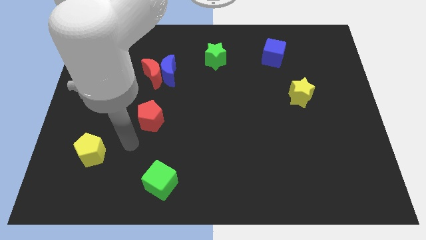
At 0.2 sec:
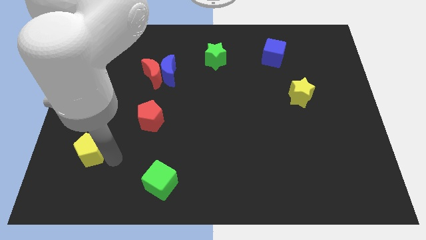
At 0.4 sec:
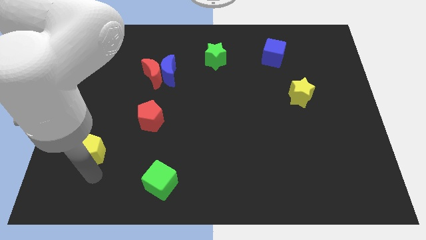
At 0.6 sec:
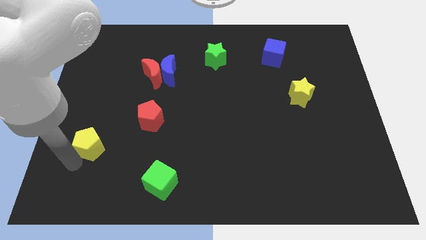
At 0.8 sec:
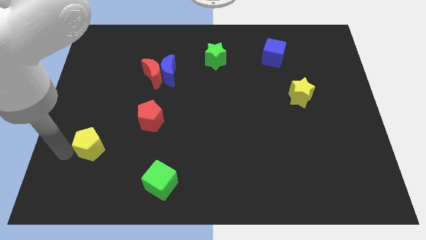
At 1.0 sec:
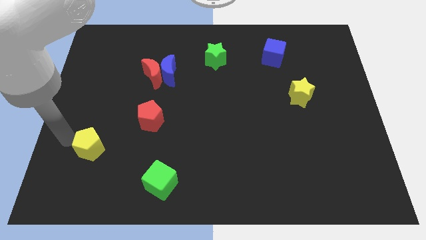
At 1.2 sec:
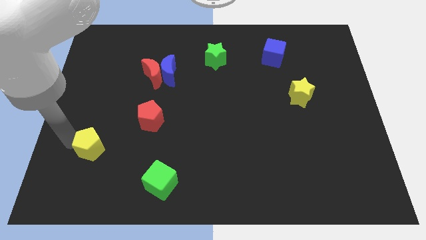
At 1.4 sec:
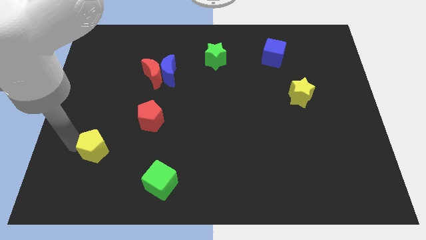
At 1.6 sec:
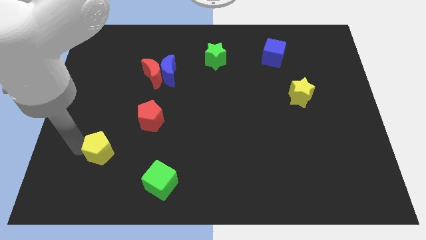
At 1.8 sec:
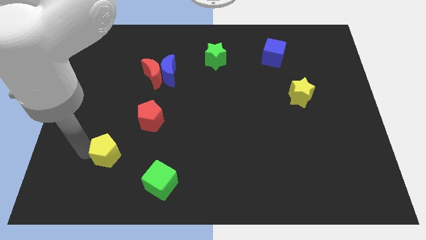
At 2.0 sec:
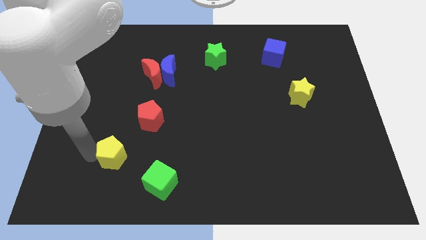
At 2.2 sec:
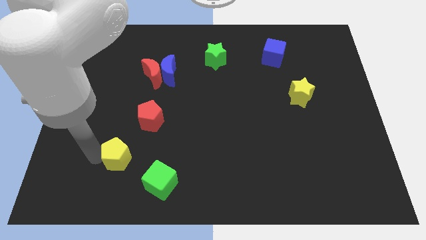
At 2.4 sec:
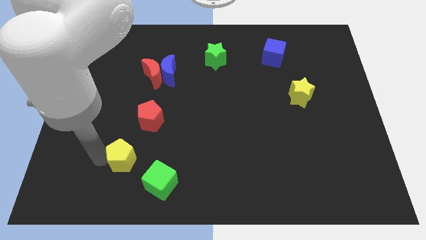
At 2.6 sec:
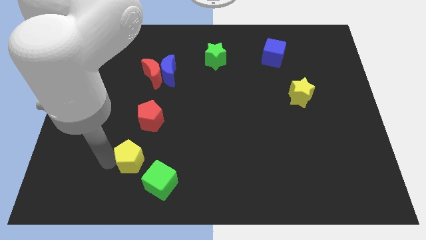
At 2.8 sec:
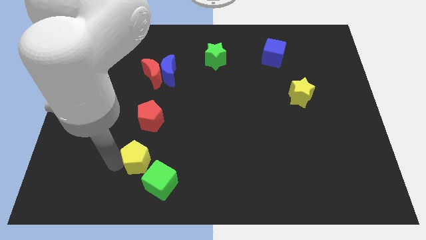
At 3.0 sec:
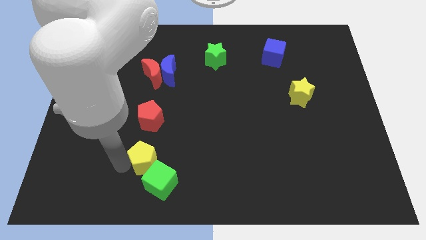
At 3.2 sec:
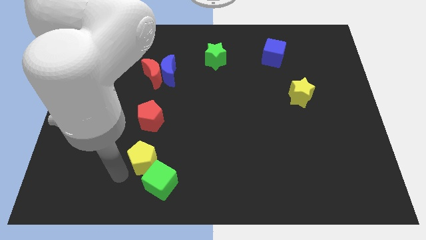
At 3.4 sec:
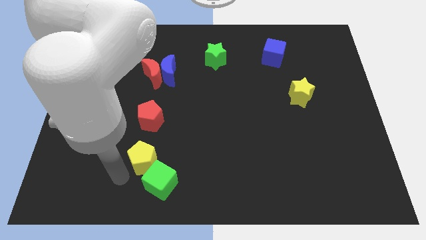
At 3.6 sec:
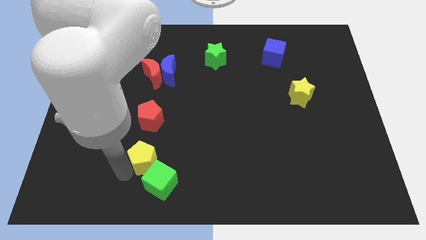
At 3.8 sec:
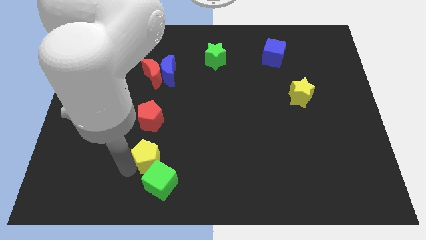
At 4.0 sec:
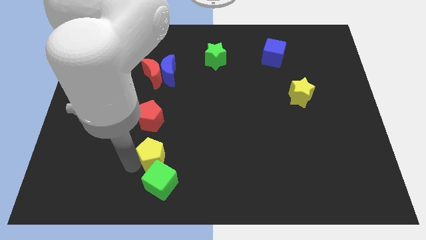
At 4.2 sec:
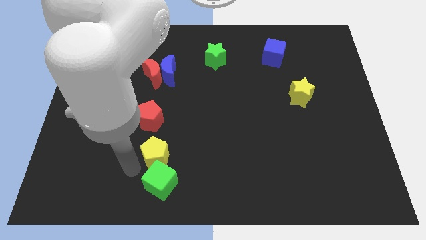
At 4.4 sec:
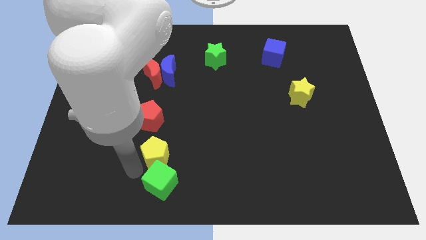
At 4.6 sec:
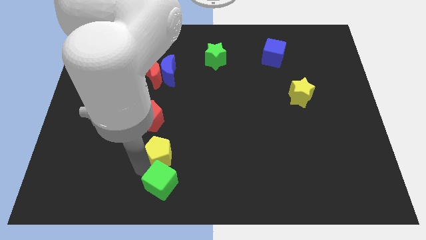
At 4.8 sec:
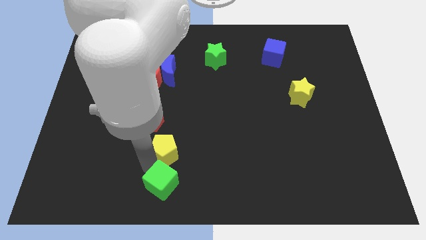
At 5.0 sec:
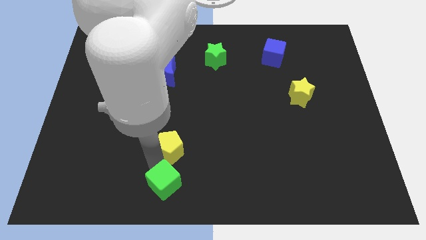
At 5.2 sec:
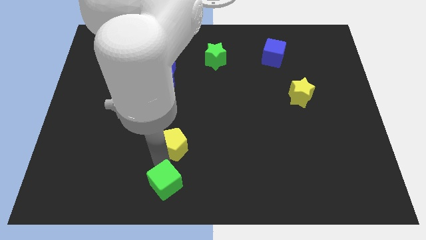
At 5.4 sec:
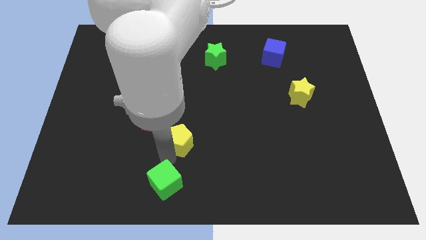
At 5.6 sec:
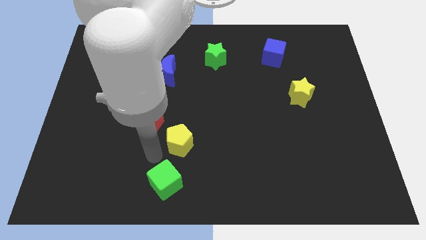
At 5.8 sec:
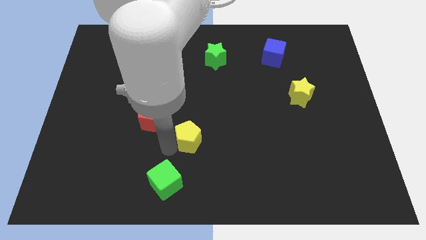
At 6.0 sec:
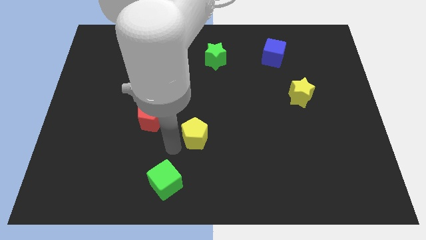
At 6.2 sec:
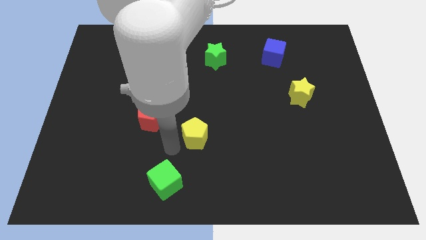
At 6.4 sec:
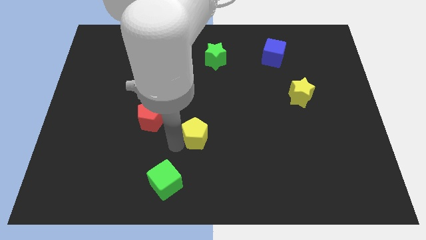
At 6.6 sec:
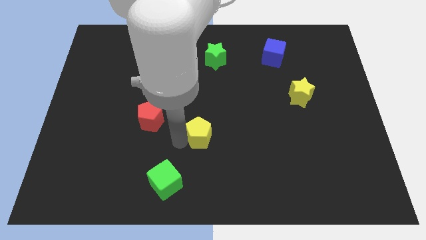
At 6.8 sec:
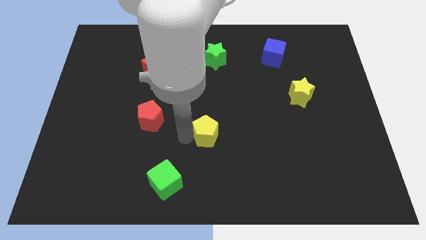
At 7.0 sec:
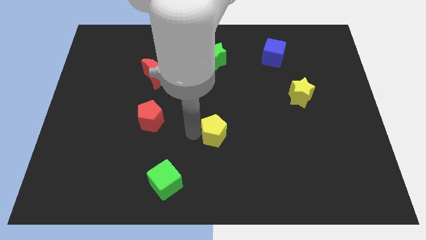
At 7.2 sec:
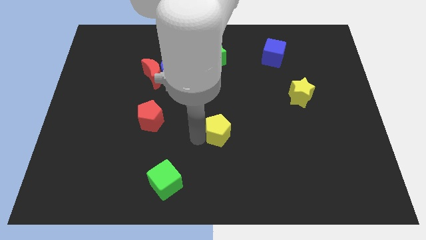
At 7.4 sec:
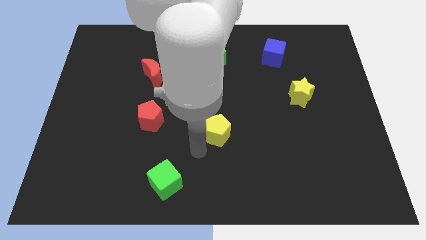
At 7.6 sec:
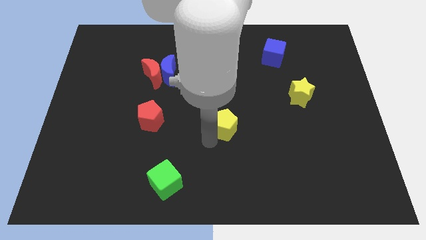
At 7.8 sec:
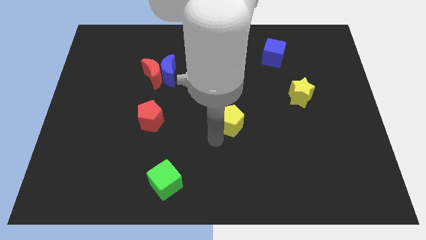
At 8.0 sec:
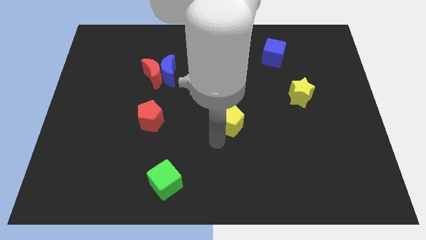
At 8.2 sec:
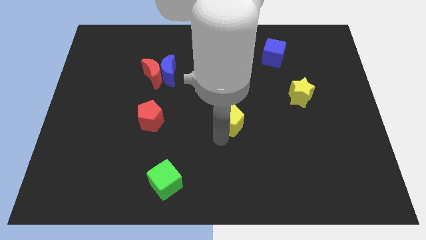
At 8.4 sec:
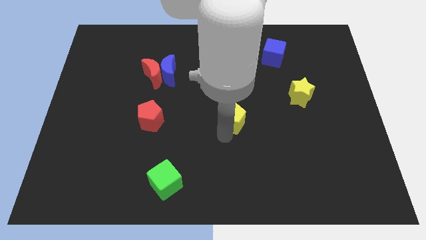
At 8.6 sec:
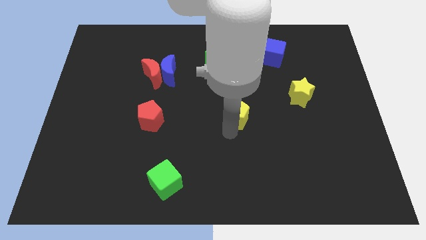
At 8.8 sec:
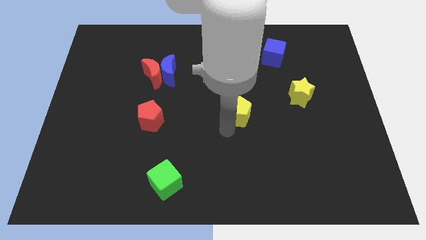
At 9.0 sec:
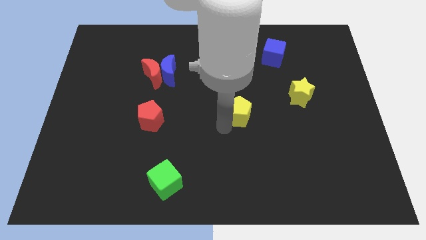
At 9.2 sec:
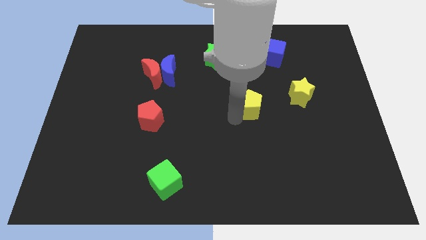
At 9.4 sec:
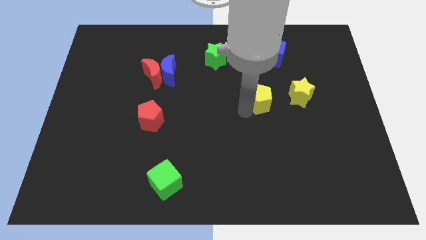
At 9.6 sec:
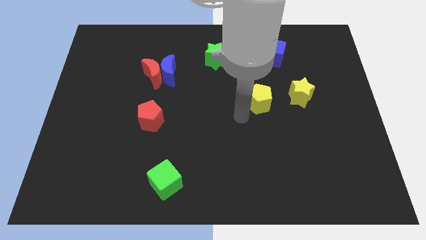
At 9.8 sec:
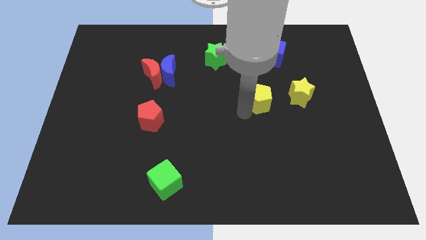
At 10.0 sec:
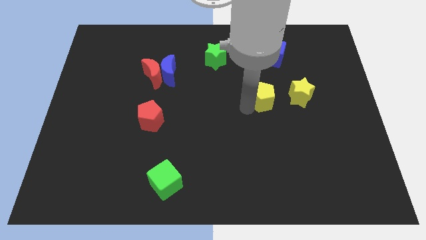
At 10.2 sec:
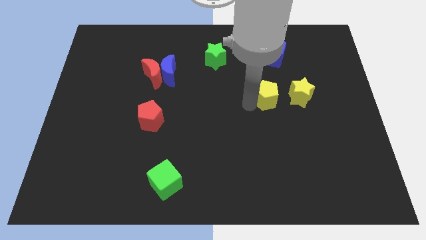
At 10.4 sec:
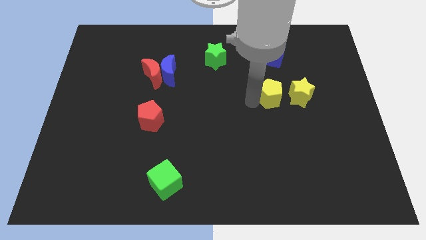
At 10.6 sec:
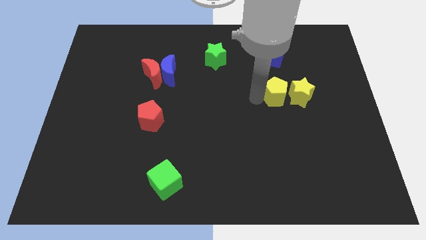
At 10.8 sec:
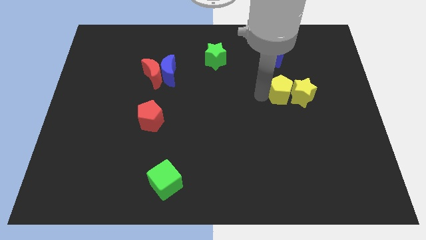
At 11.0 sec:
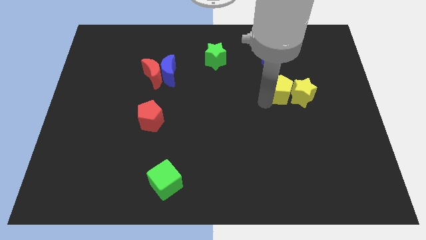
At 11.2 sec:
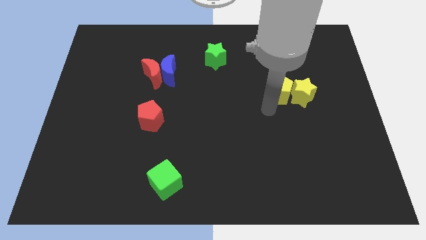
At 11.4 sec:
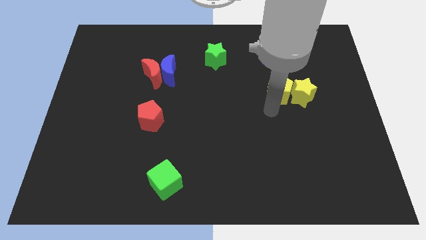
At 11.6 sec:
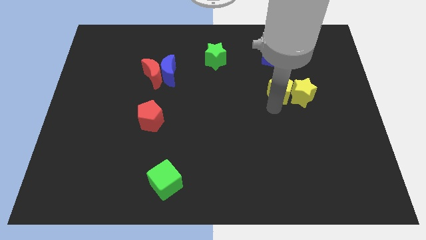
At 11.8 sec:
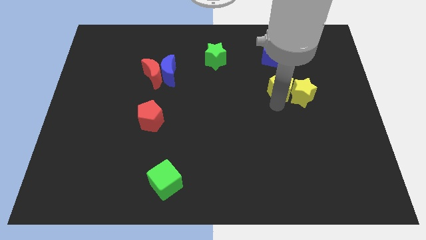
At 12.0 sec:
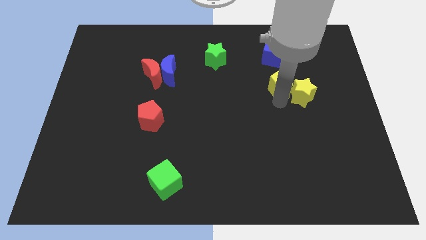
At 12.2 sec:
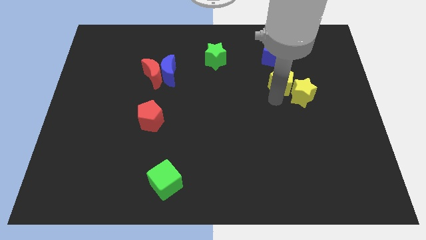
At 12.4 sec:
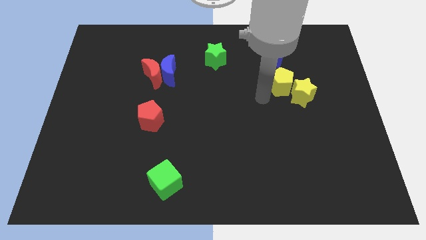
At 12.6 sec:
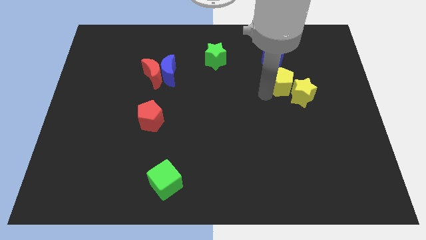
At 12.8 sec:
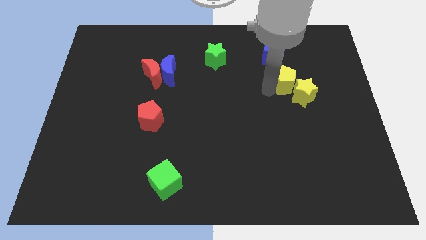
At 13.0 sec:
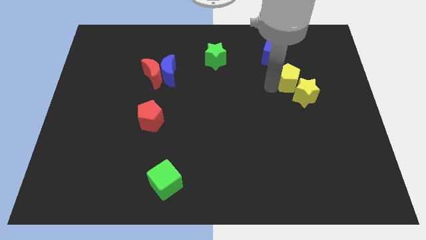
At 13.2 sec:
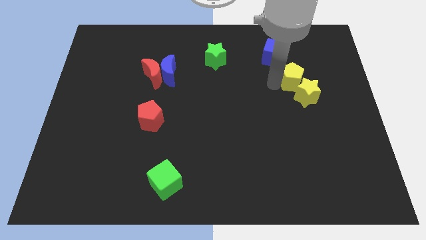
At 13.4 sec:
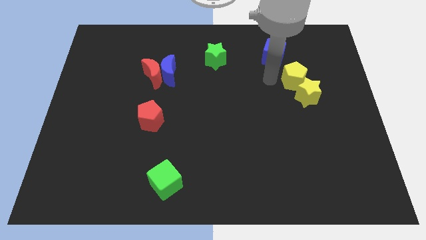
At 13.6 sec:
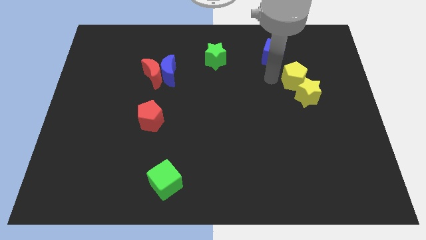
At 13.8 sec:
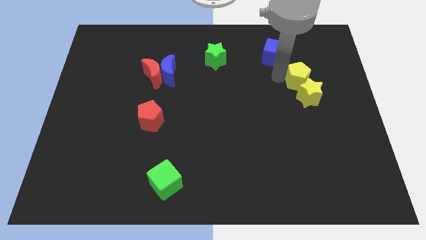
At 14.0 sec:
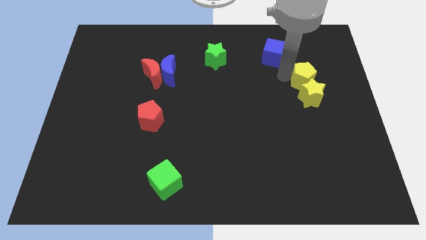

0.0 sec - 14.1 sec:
move the yellow pentagon to the top right side of the yellow star
